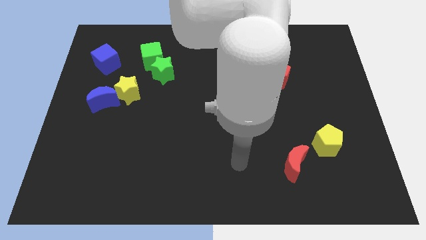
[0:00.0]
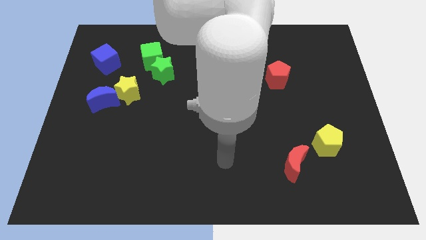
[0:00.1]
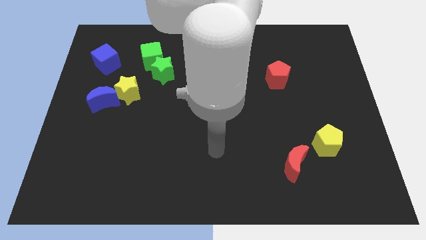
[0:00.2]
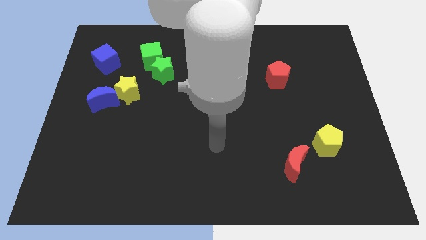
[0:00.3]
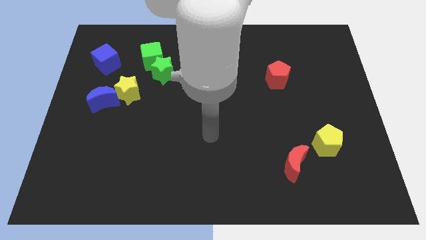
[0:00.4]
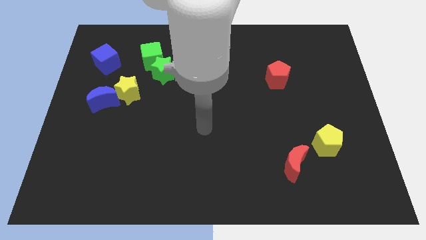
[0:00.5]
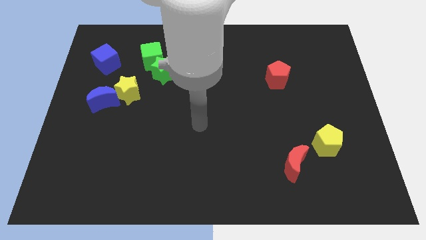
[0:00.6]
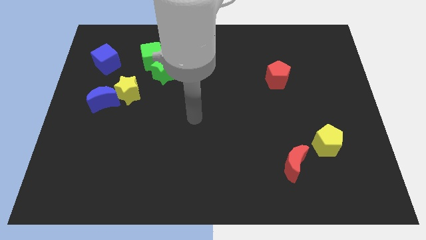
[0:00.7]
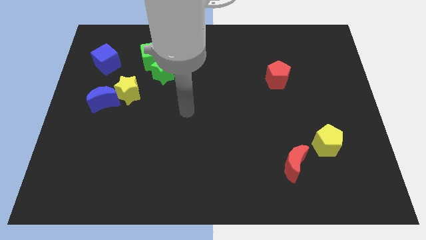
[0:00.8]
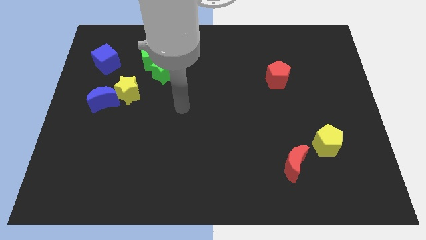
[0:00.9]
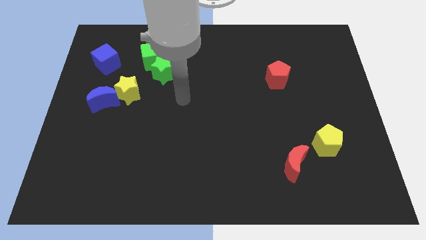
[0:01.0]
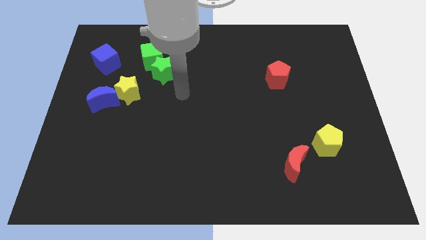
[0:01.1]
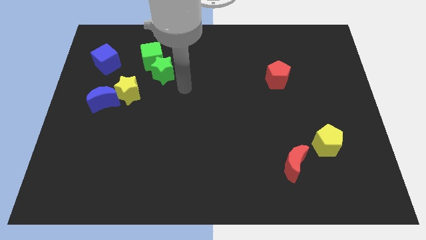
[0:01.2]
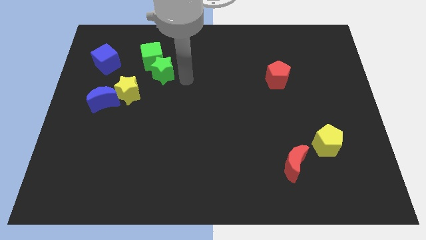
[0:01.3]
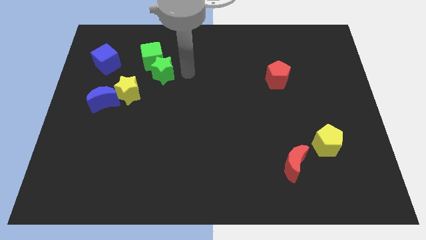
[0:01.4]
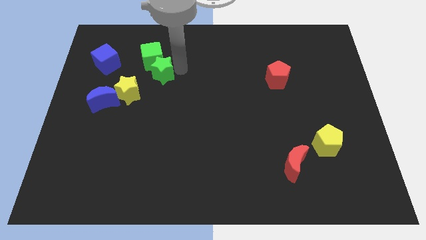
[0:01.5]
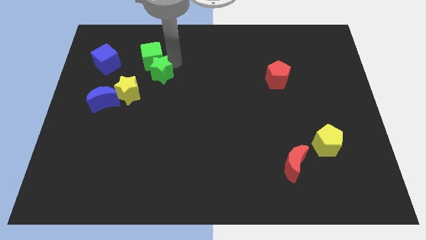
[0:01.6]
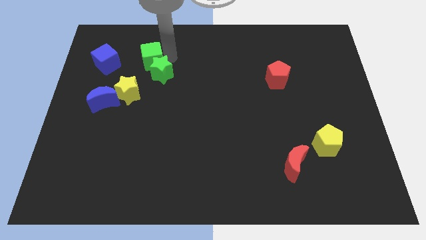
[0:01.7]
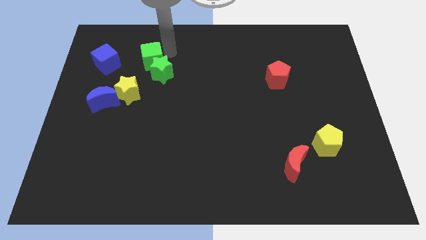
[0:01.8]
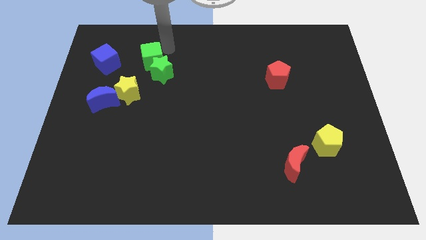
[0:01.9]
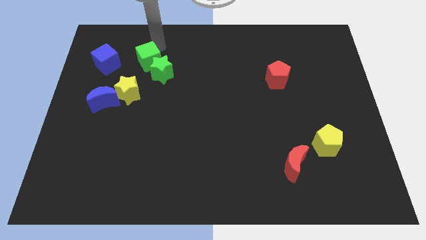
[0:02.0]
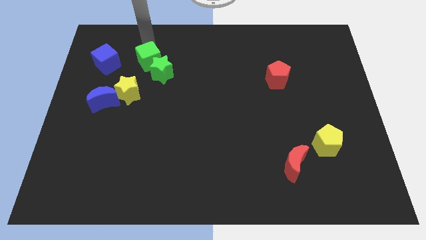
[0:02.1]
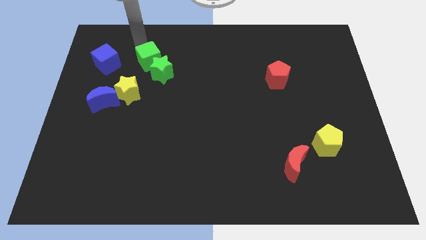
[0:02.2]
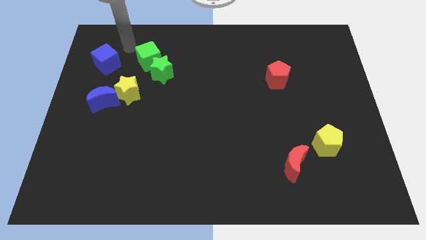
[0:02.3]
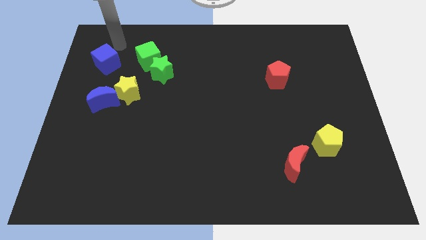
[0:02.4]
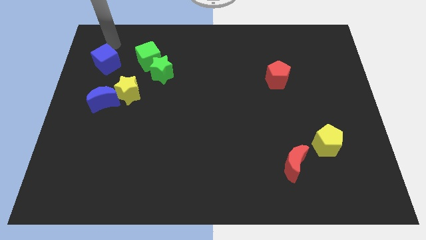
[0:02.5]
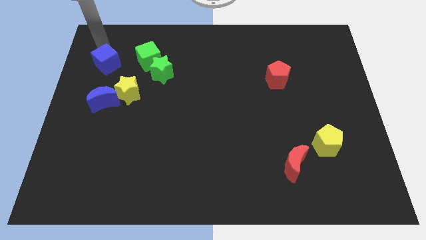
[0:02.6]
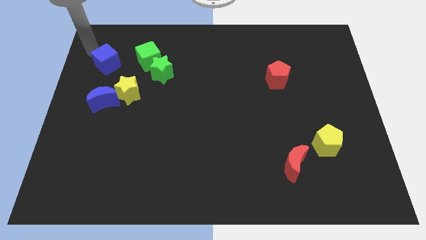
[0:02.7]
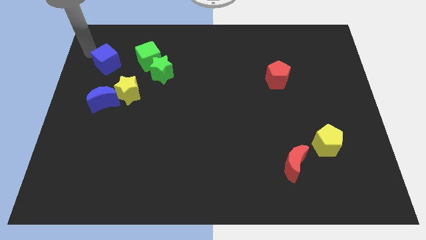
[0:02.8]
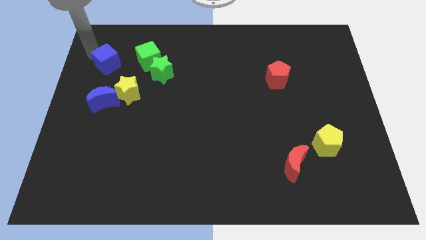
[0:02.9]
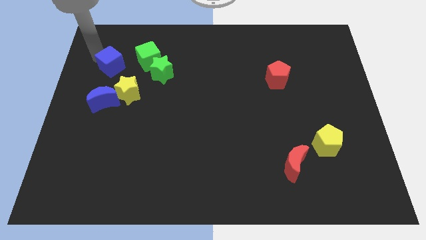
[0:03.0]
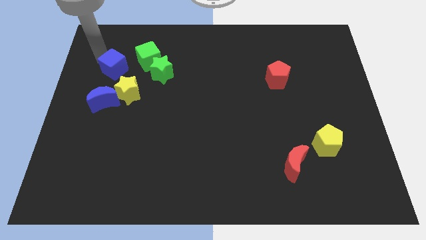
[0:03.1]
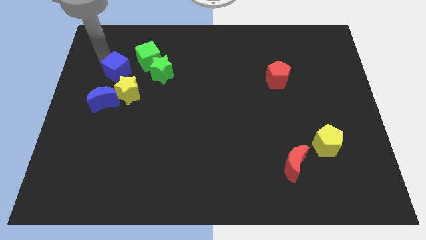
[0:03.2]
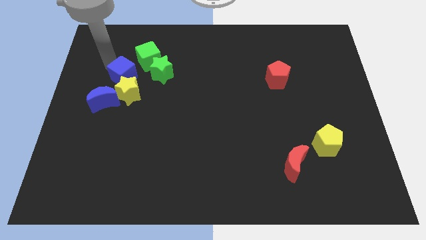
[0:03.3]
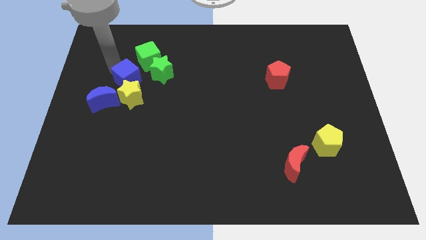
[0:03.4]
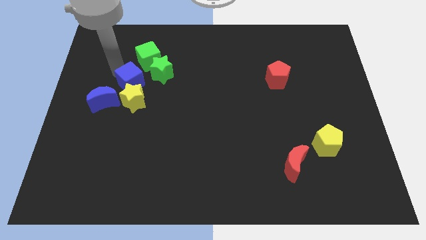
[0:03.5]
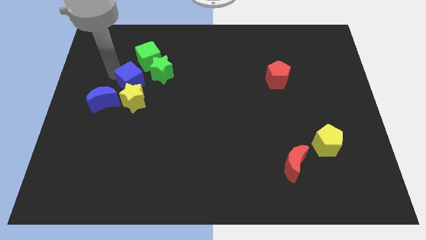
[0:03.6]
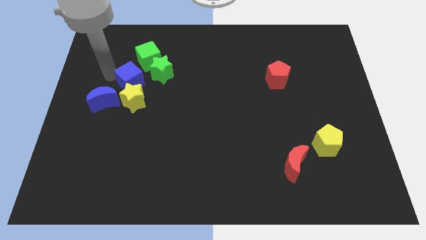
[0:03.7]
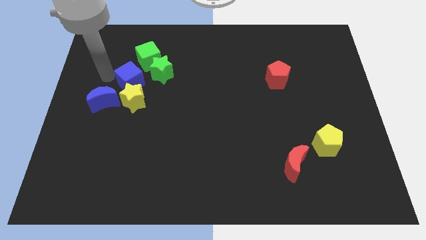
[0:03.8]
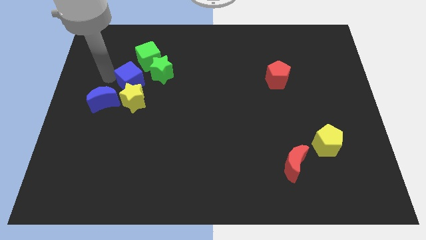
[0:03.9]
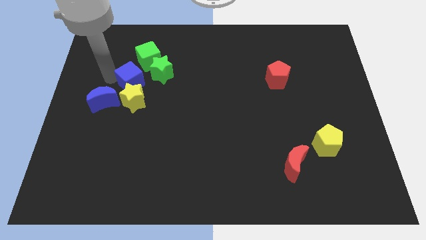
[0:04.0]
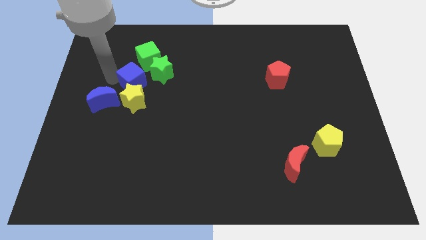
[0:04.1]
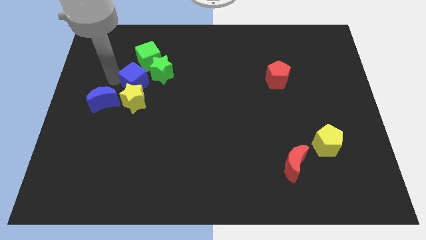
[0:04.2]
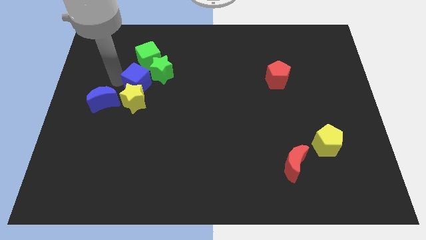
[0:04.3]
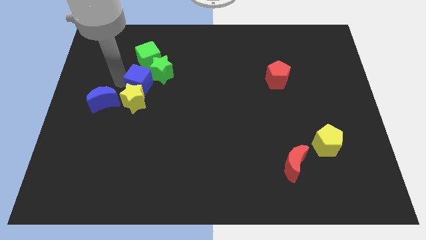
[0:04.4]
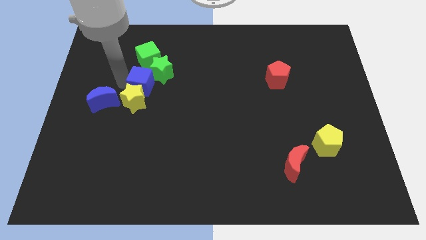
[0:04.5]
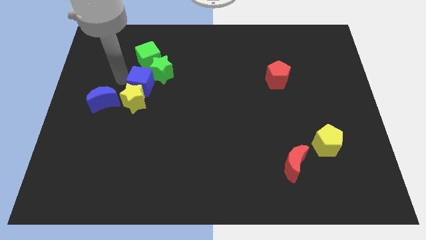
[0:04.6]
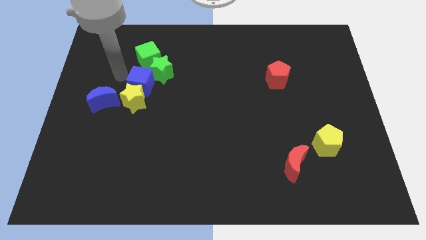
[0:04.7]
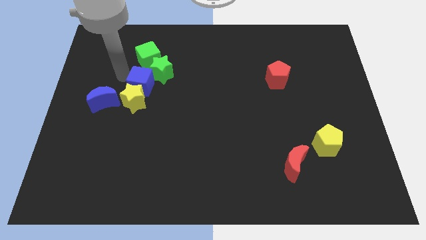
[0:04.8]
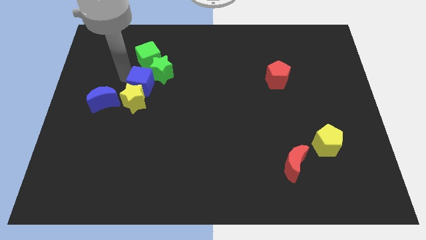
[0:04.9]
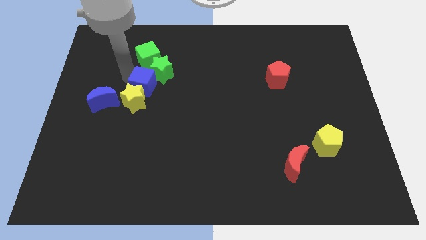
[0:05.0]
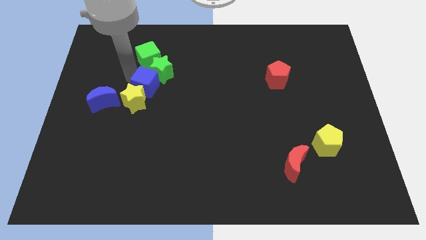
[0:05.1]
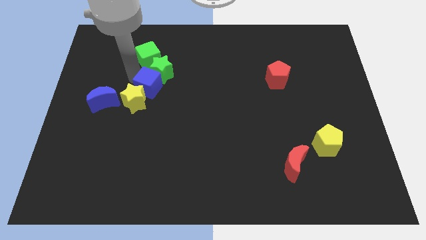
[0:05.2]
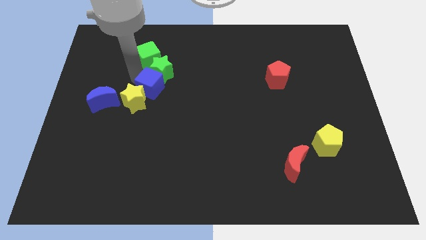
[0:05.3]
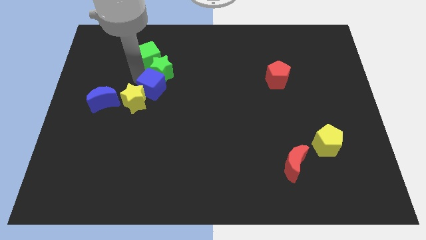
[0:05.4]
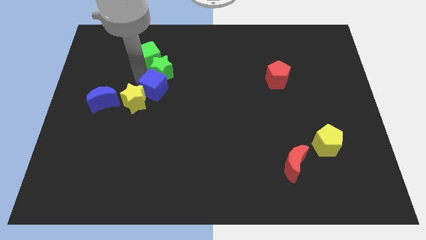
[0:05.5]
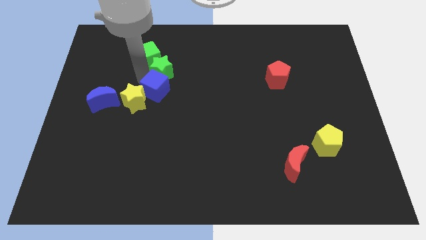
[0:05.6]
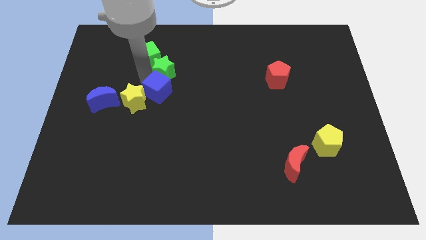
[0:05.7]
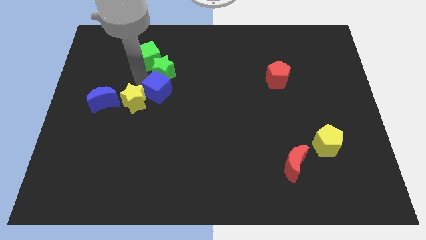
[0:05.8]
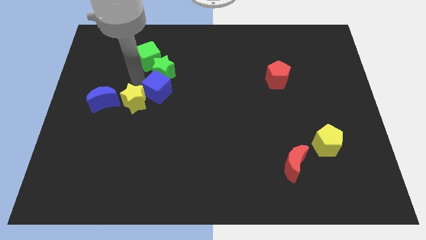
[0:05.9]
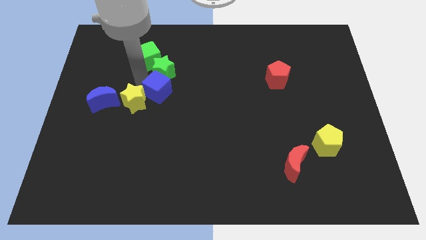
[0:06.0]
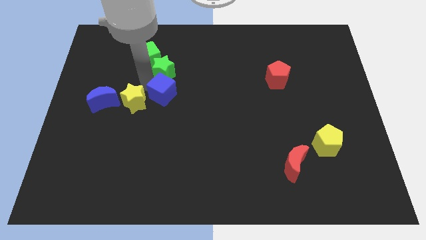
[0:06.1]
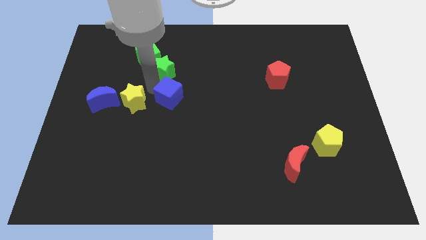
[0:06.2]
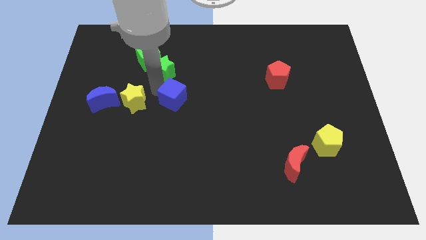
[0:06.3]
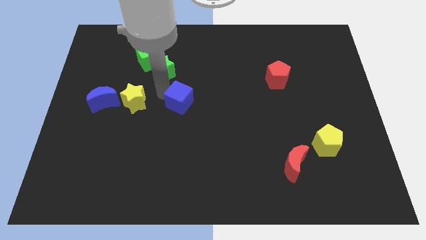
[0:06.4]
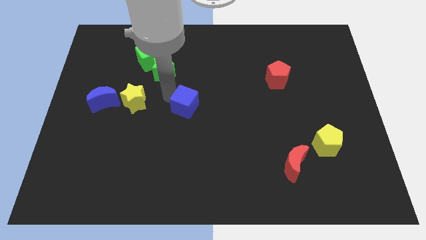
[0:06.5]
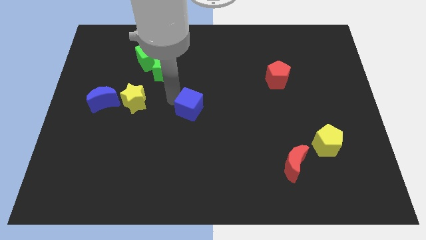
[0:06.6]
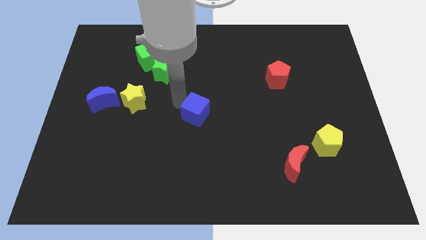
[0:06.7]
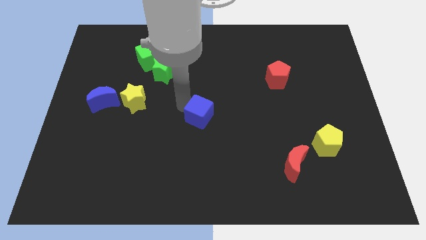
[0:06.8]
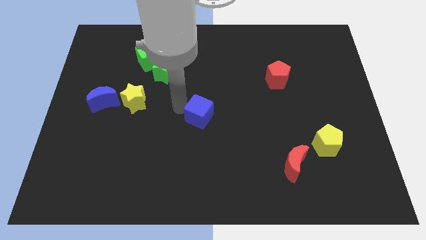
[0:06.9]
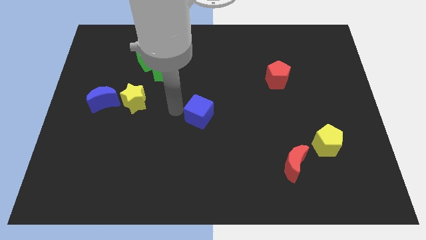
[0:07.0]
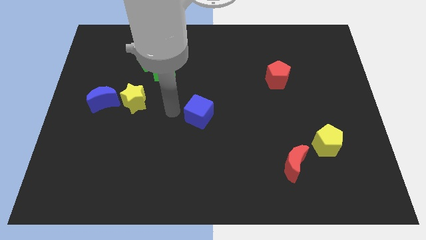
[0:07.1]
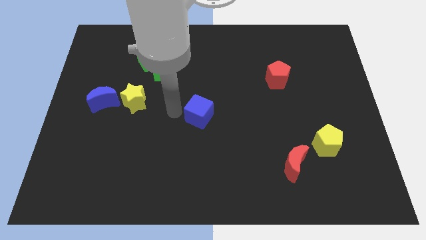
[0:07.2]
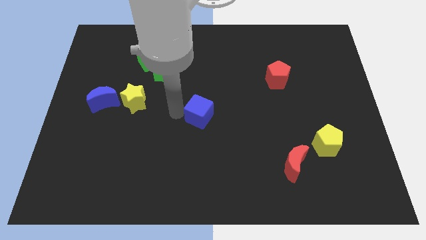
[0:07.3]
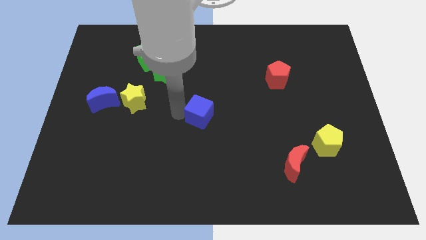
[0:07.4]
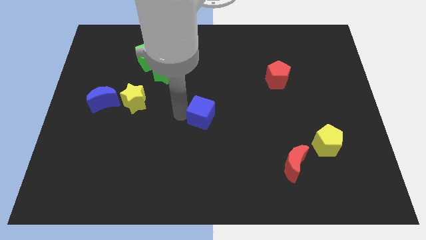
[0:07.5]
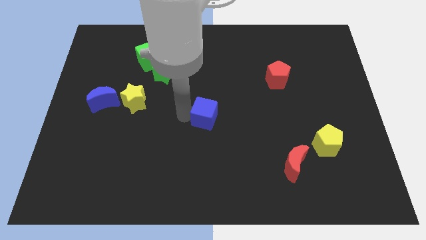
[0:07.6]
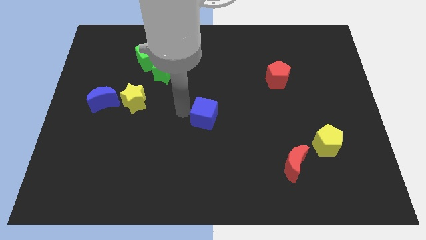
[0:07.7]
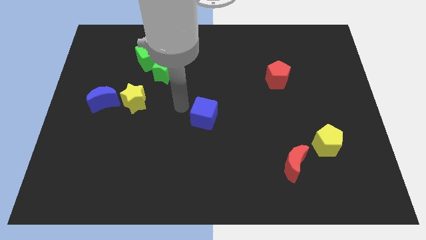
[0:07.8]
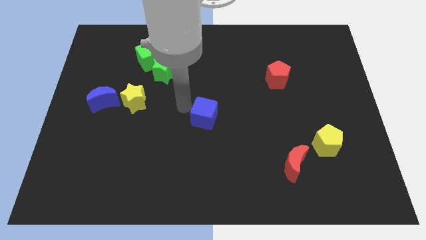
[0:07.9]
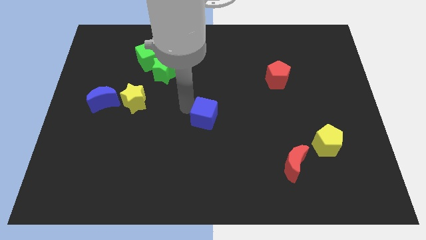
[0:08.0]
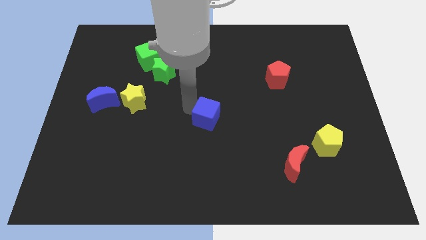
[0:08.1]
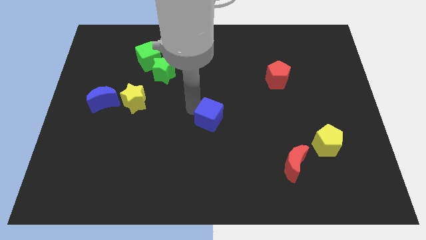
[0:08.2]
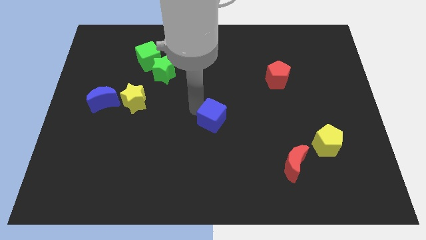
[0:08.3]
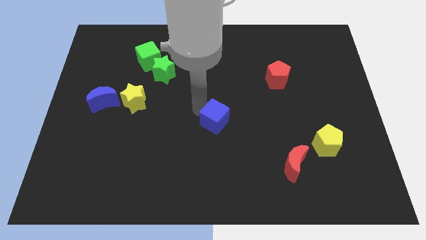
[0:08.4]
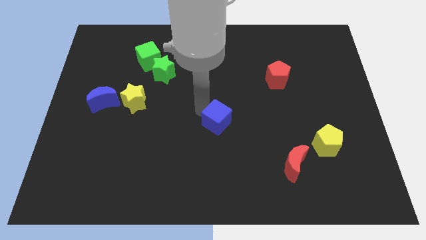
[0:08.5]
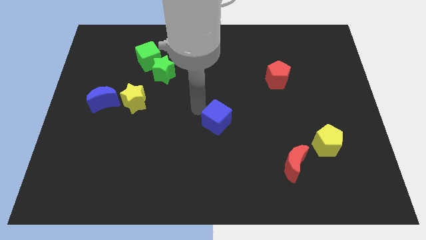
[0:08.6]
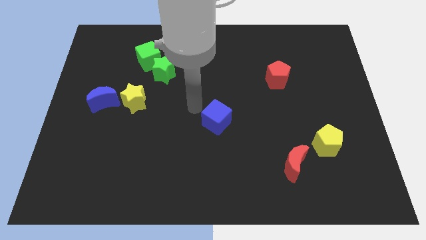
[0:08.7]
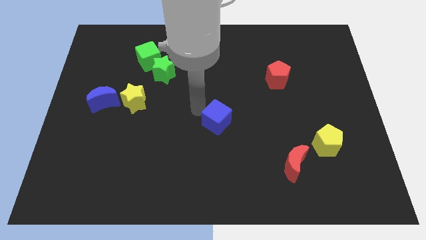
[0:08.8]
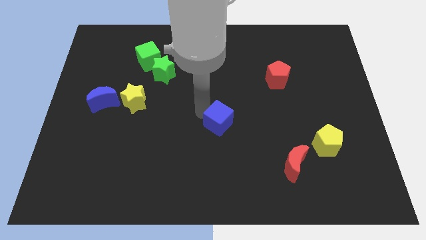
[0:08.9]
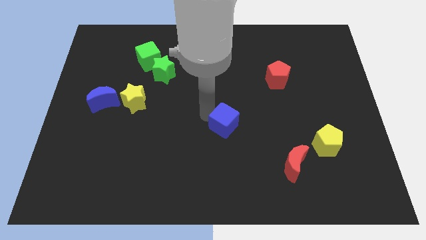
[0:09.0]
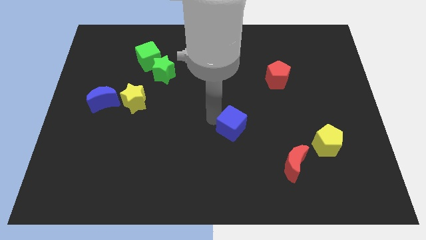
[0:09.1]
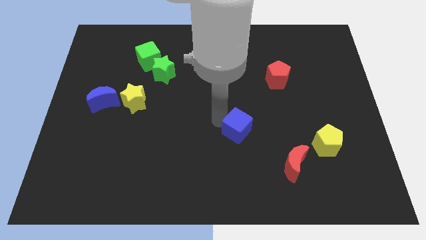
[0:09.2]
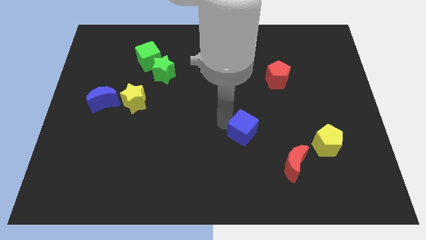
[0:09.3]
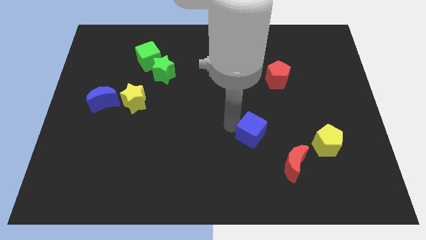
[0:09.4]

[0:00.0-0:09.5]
put the blue cube diagonally up and to the left of the red moon
